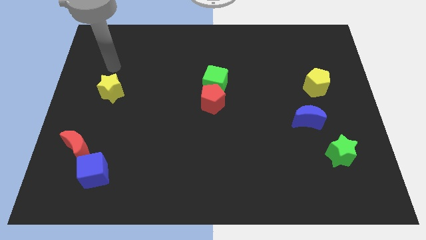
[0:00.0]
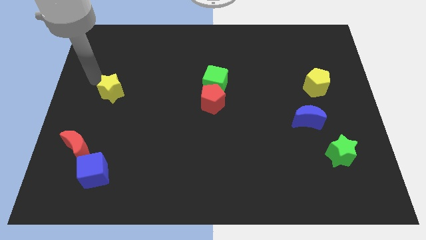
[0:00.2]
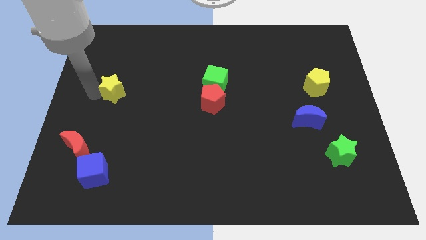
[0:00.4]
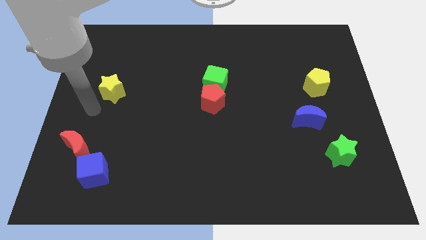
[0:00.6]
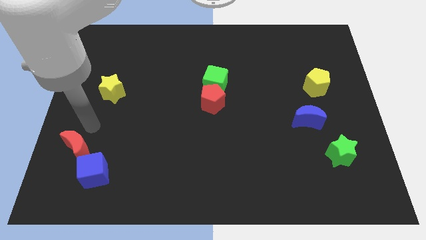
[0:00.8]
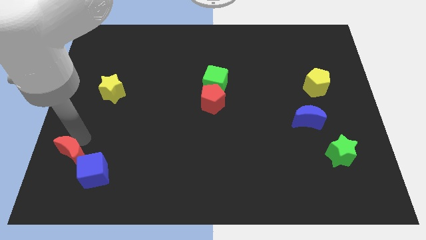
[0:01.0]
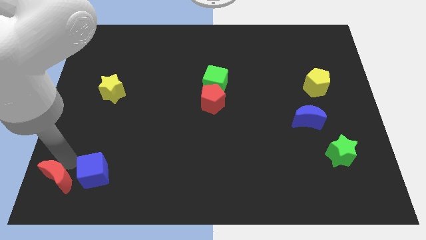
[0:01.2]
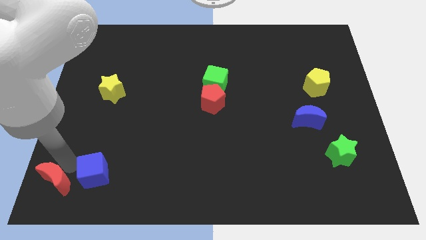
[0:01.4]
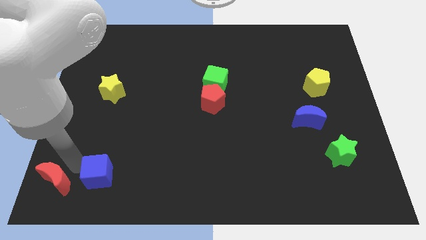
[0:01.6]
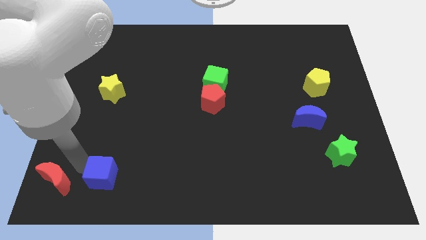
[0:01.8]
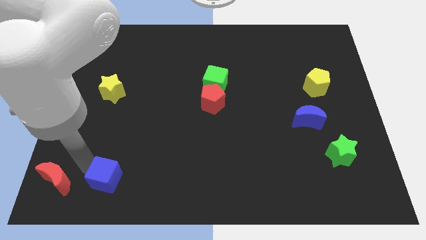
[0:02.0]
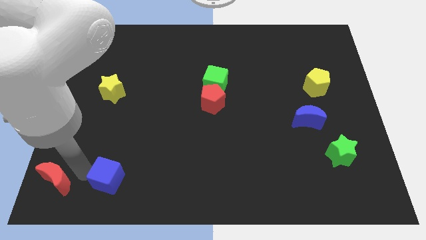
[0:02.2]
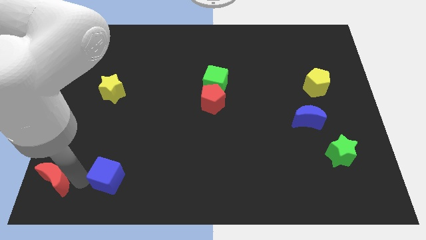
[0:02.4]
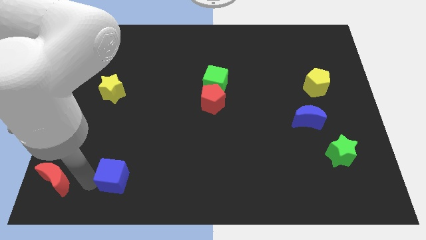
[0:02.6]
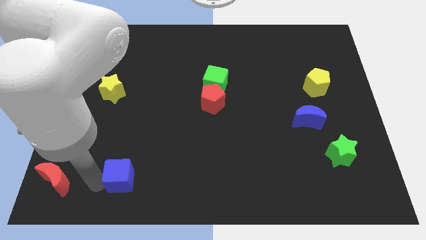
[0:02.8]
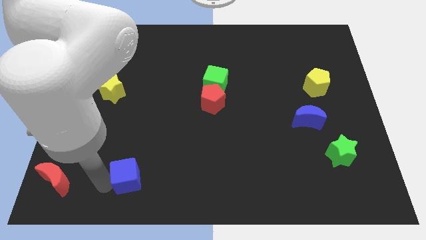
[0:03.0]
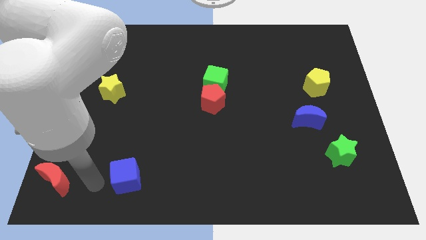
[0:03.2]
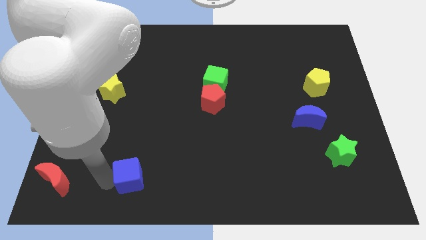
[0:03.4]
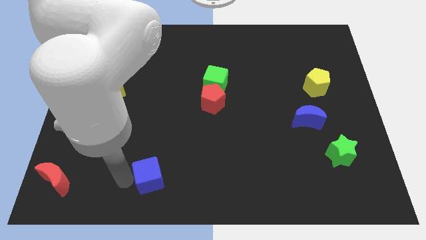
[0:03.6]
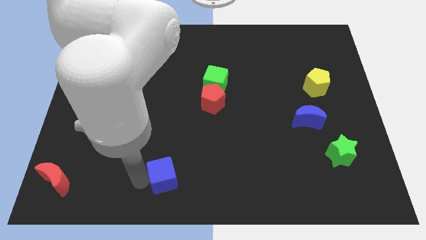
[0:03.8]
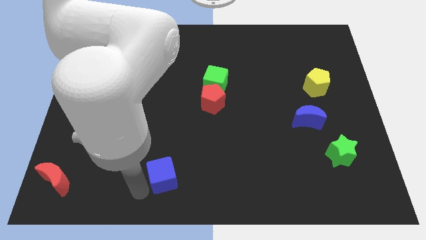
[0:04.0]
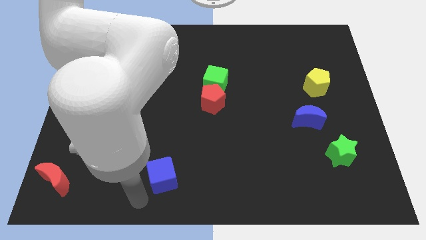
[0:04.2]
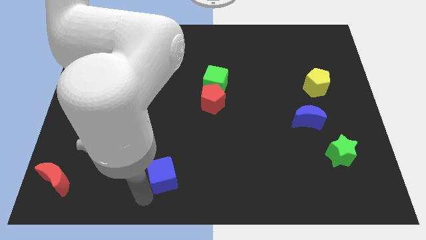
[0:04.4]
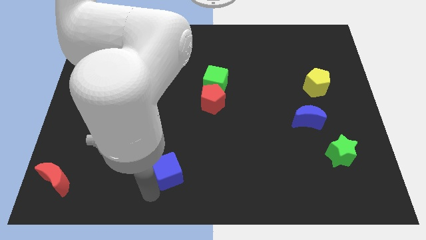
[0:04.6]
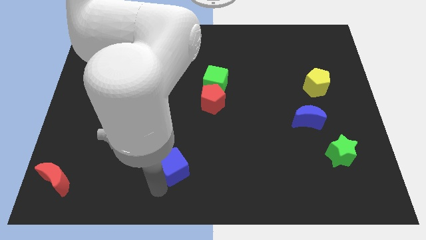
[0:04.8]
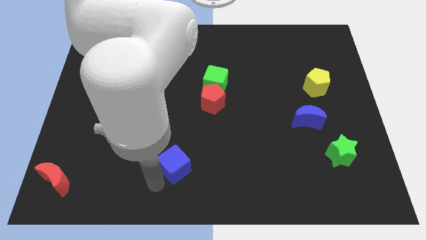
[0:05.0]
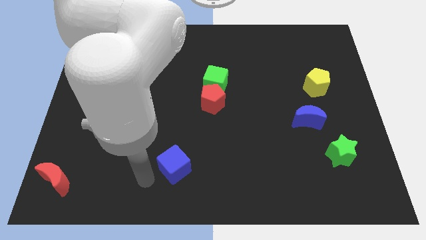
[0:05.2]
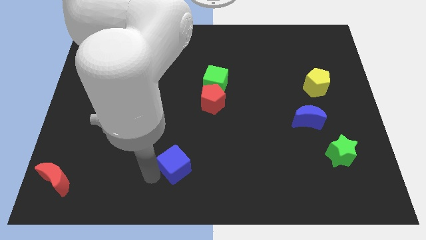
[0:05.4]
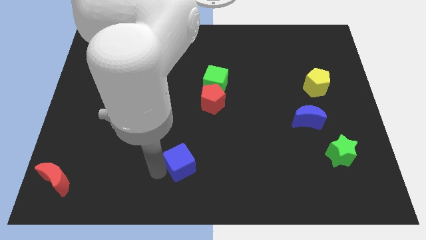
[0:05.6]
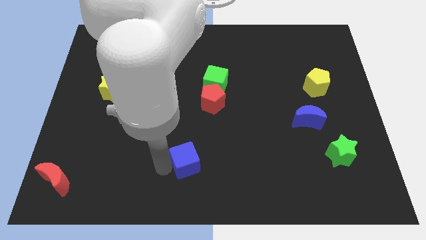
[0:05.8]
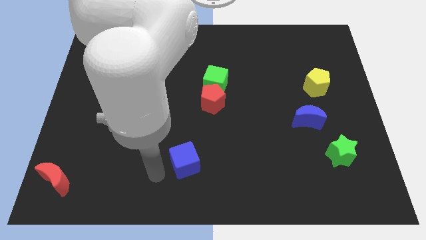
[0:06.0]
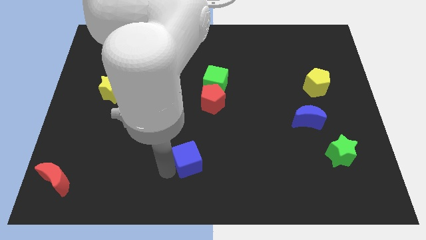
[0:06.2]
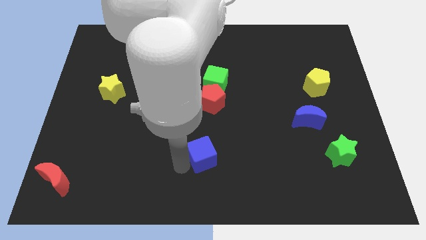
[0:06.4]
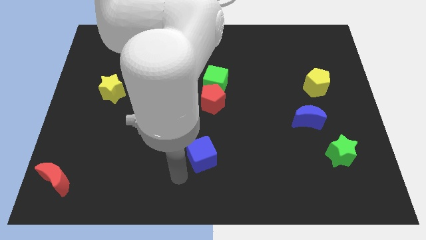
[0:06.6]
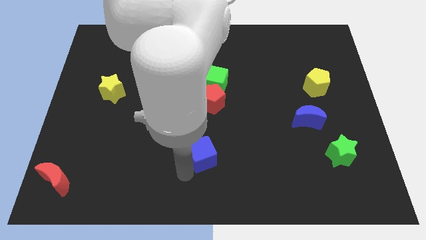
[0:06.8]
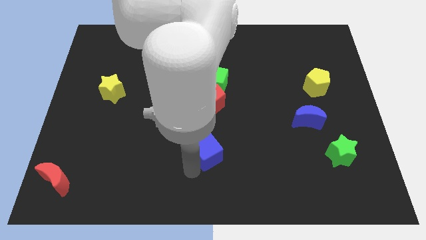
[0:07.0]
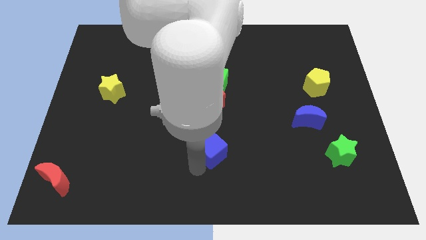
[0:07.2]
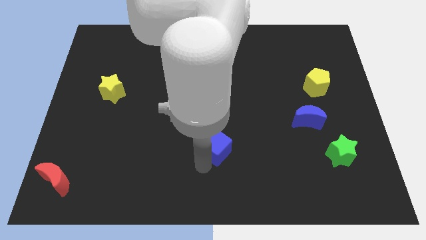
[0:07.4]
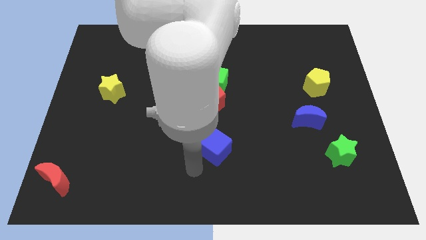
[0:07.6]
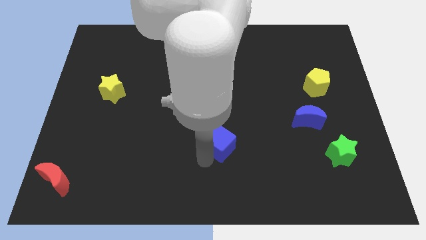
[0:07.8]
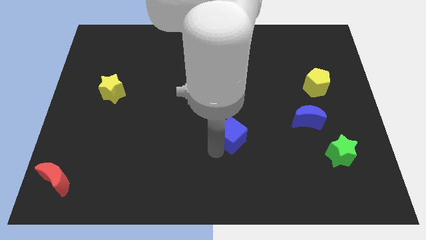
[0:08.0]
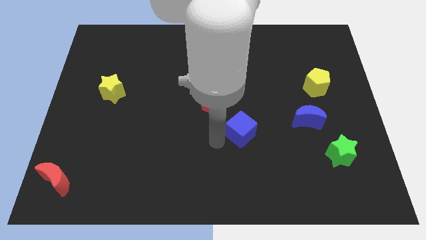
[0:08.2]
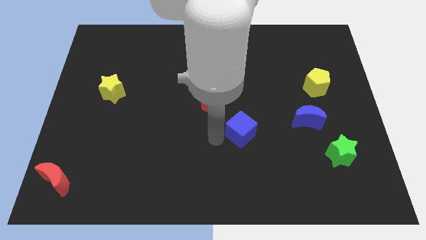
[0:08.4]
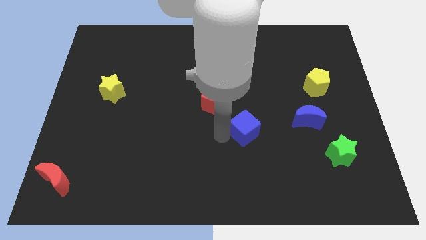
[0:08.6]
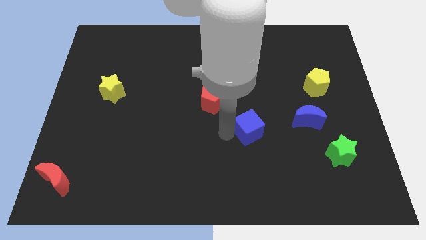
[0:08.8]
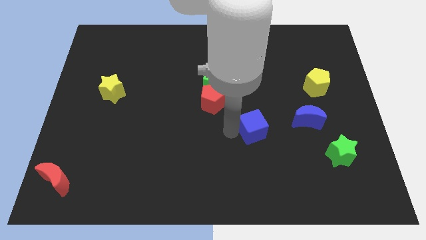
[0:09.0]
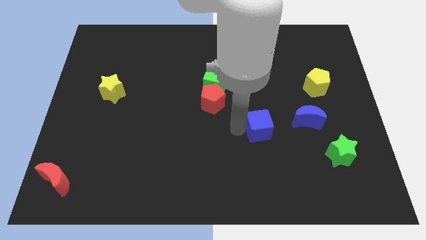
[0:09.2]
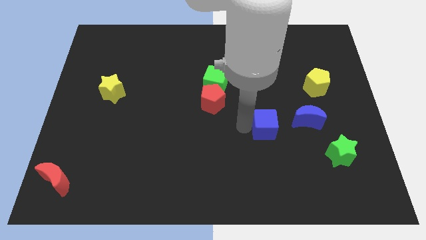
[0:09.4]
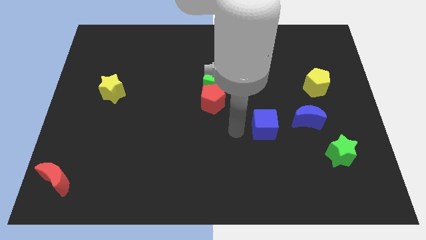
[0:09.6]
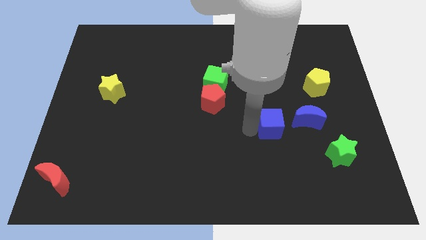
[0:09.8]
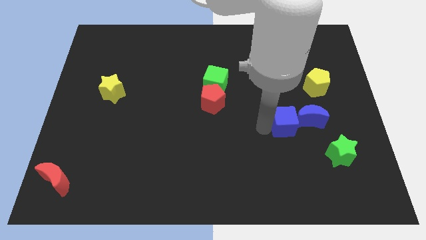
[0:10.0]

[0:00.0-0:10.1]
push the blue cube towards the blue moon

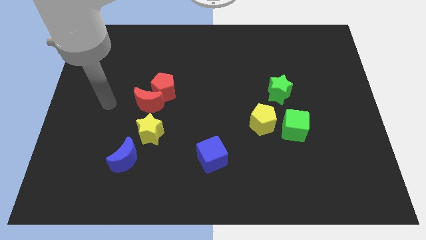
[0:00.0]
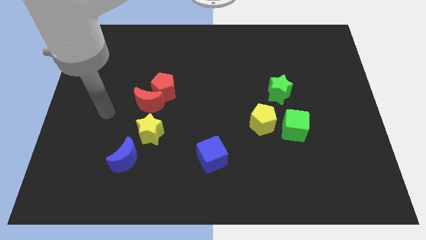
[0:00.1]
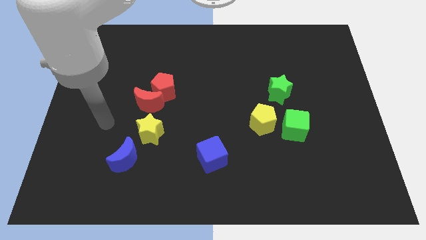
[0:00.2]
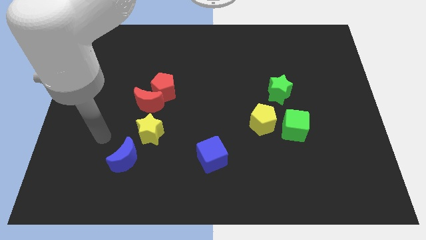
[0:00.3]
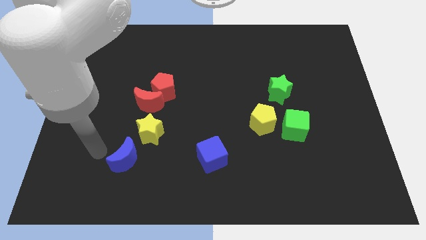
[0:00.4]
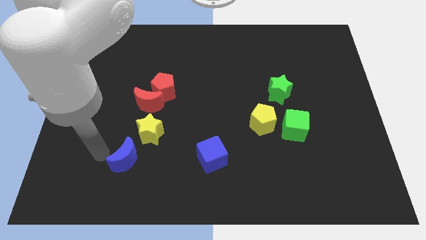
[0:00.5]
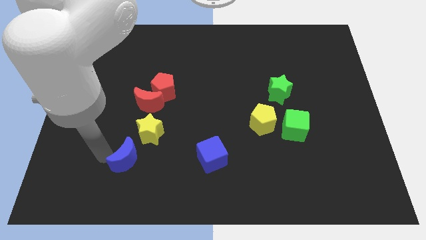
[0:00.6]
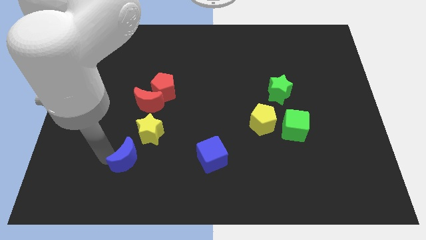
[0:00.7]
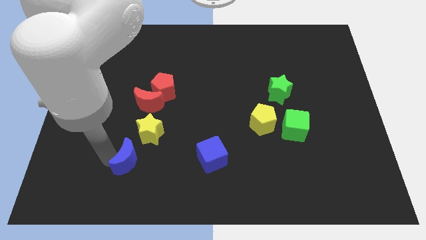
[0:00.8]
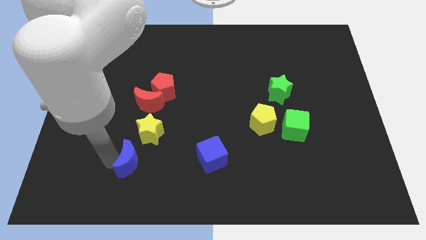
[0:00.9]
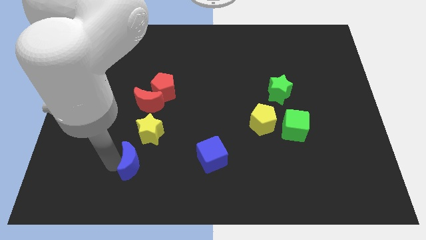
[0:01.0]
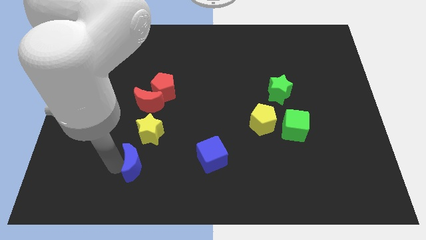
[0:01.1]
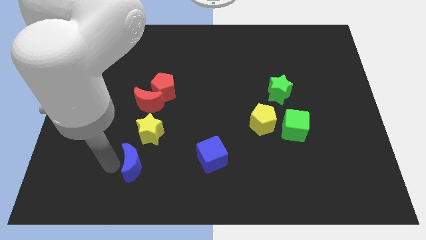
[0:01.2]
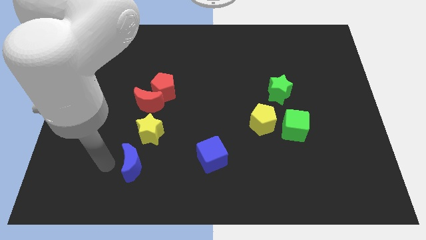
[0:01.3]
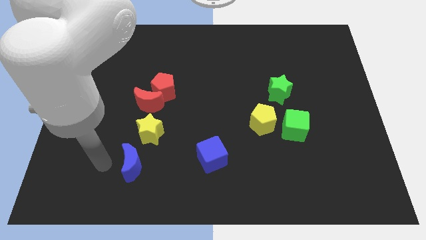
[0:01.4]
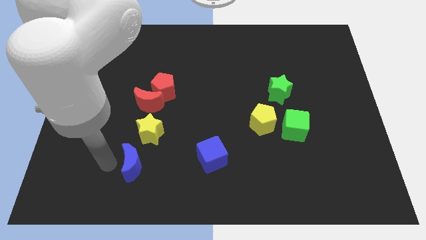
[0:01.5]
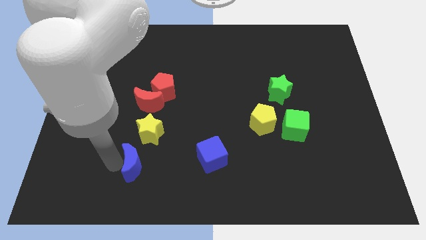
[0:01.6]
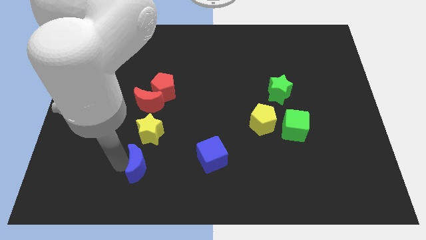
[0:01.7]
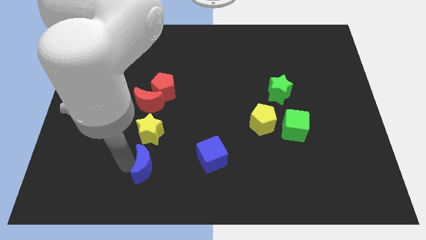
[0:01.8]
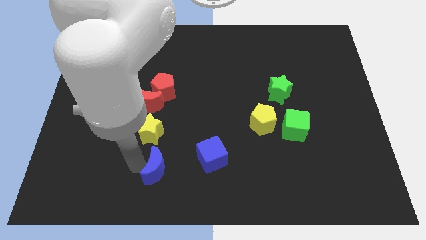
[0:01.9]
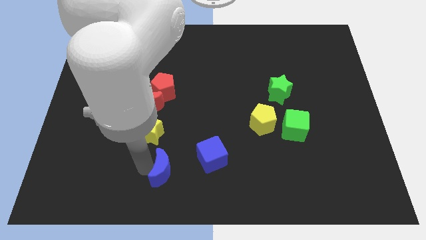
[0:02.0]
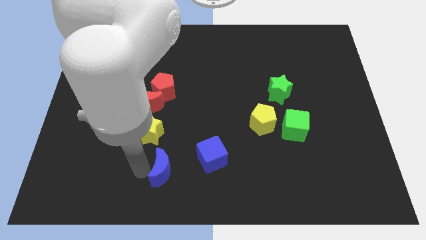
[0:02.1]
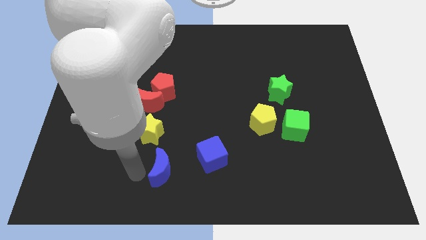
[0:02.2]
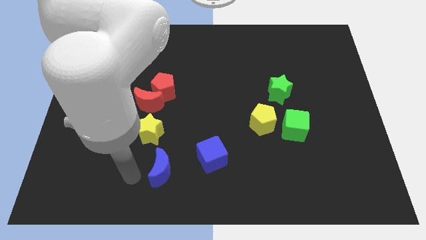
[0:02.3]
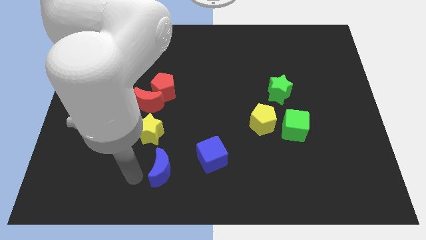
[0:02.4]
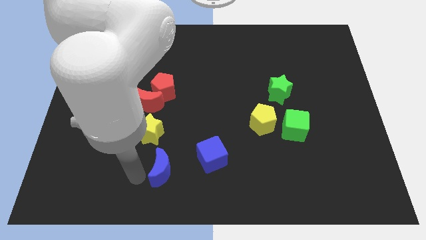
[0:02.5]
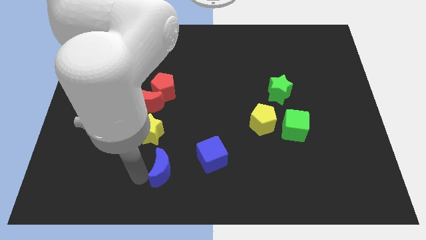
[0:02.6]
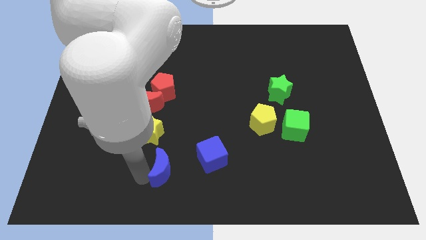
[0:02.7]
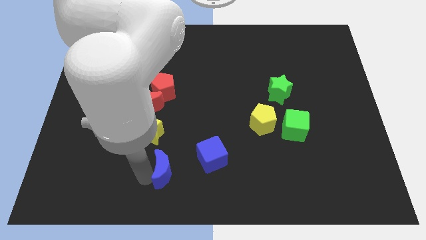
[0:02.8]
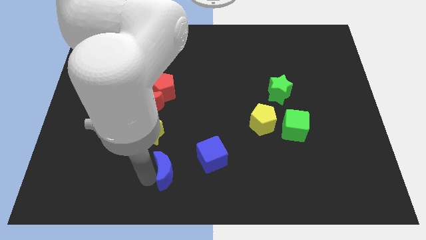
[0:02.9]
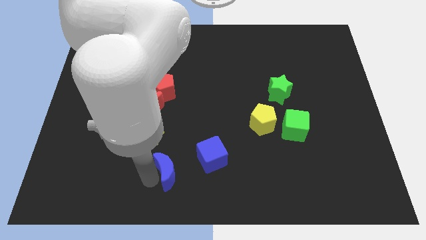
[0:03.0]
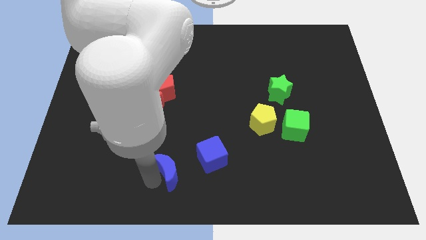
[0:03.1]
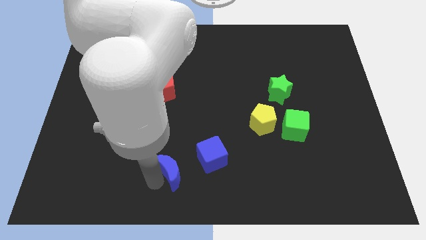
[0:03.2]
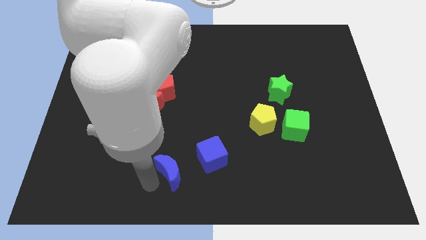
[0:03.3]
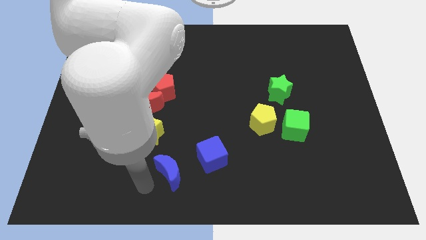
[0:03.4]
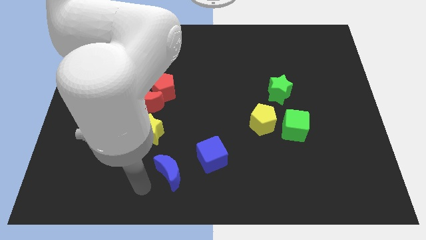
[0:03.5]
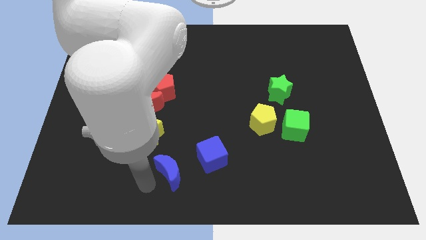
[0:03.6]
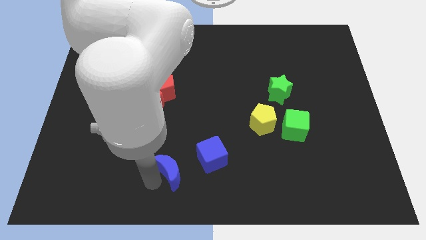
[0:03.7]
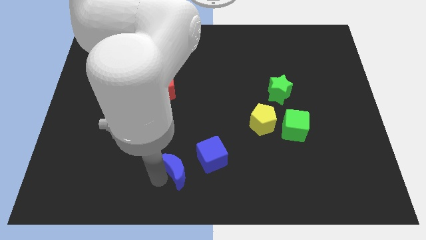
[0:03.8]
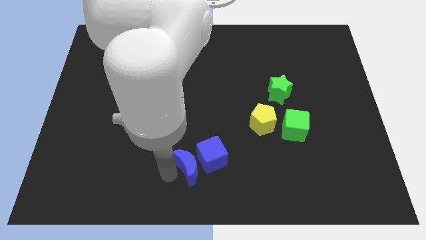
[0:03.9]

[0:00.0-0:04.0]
slide the blue moon to the blue cube
